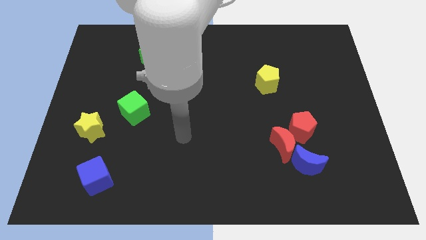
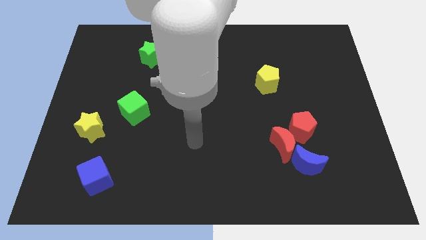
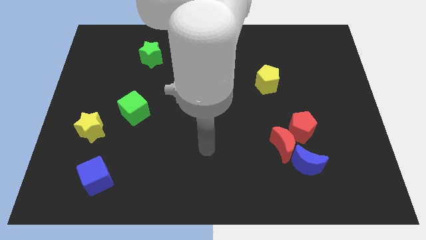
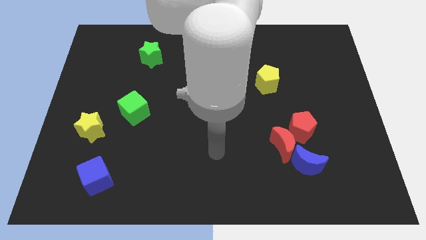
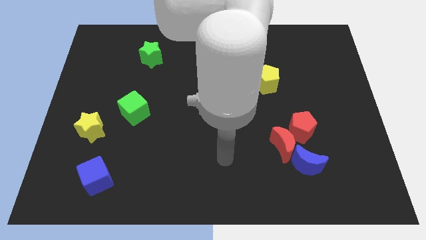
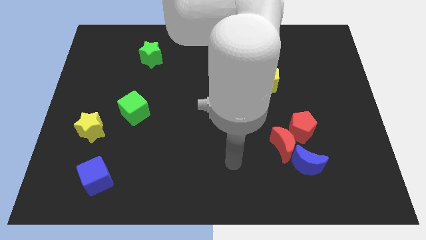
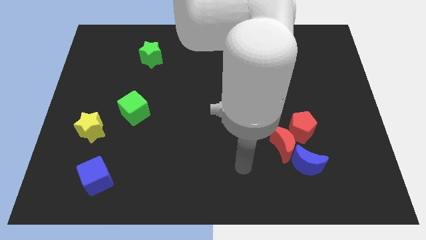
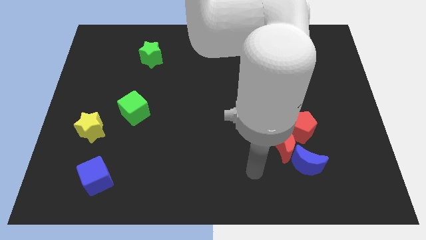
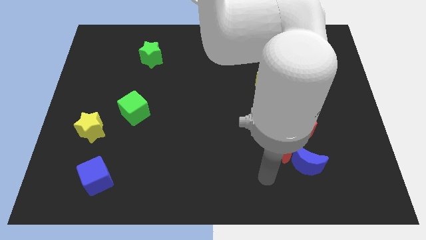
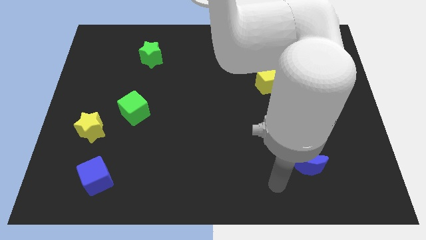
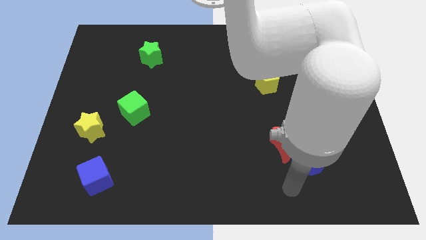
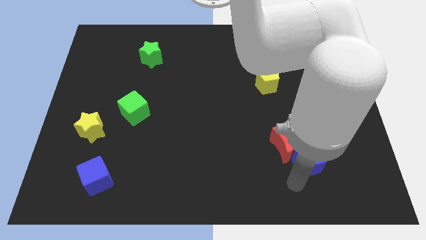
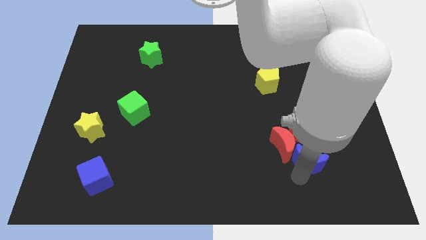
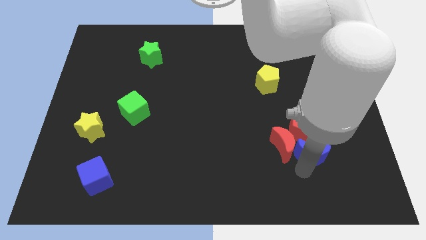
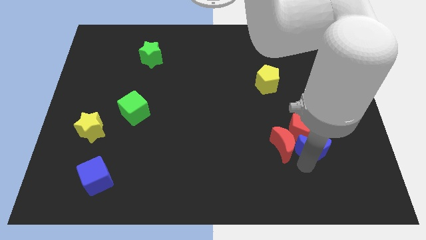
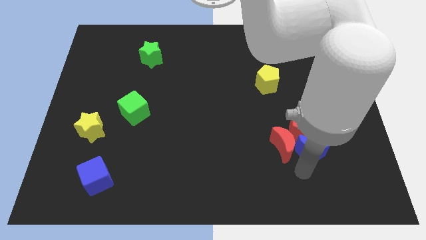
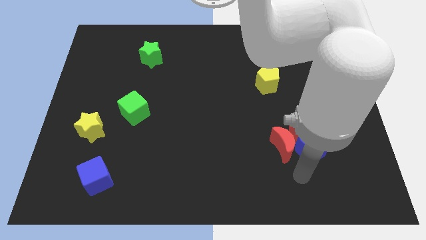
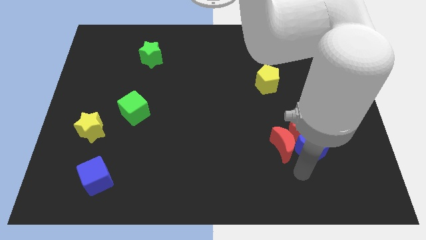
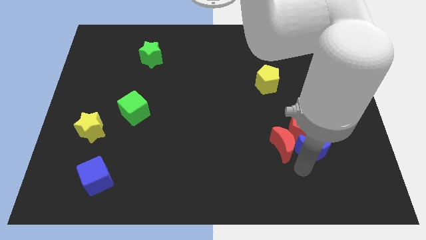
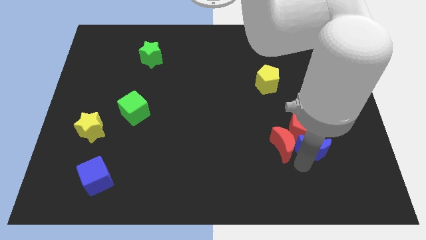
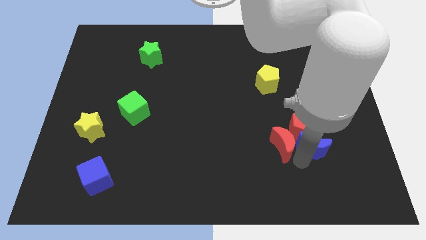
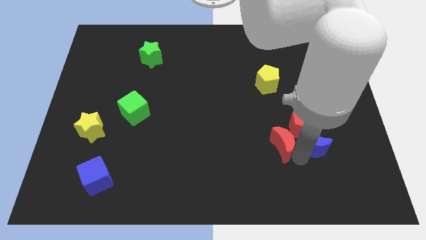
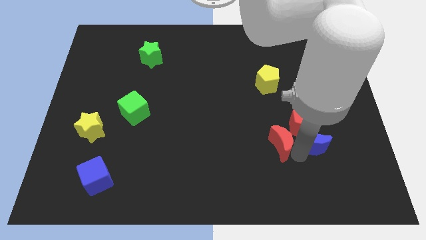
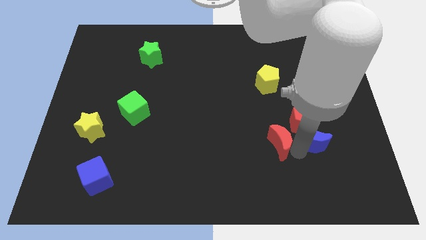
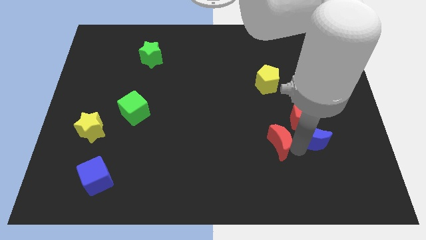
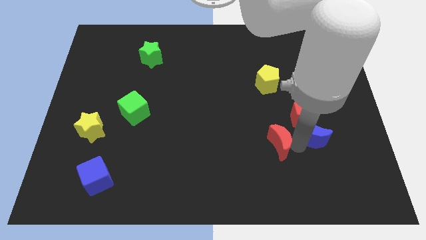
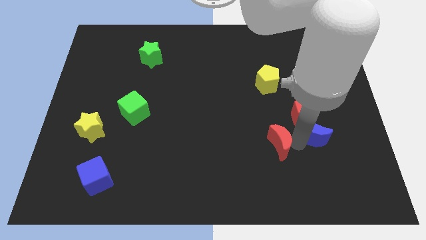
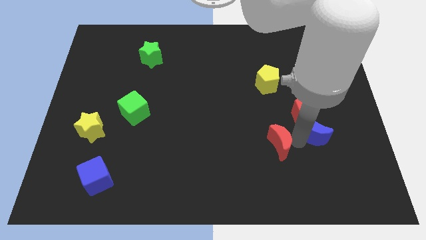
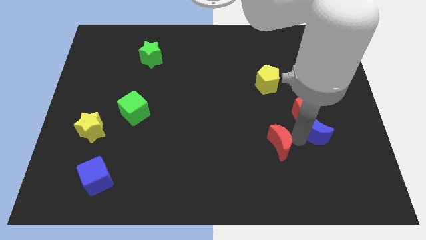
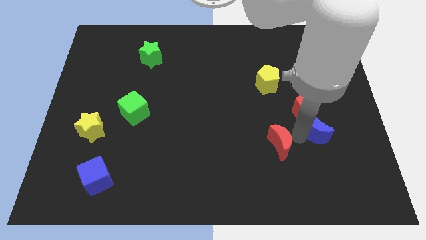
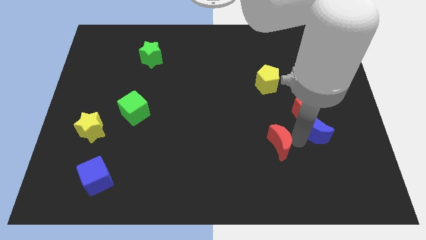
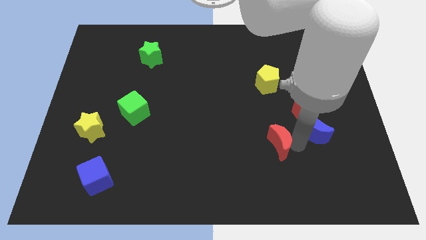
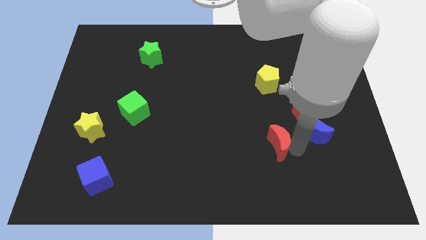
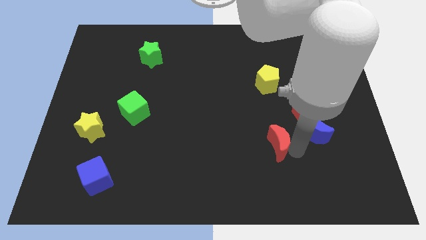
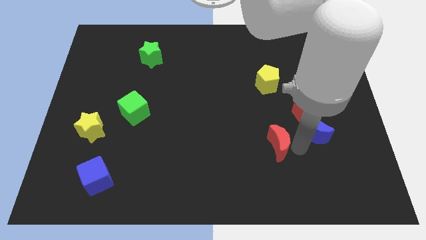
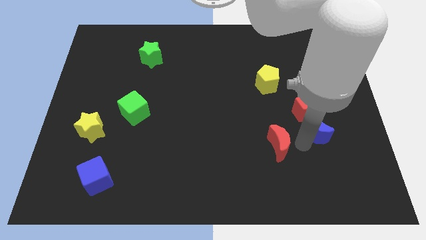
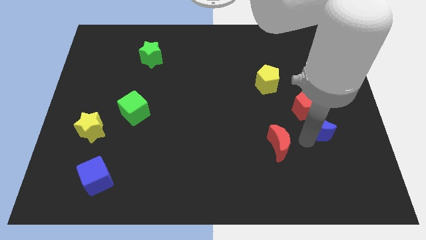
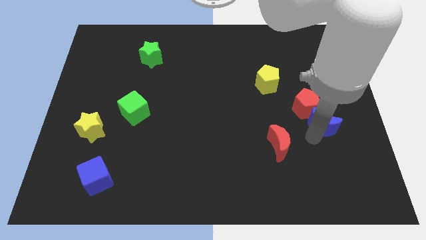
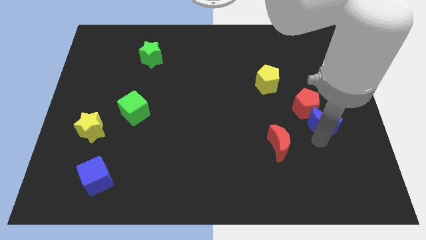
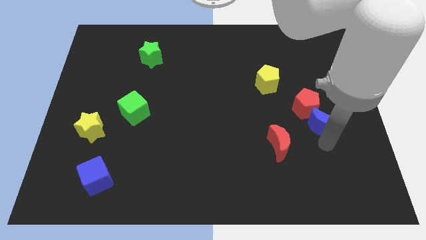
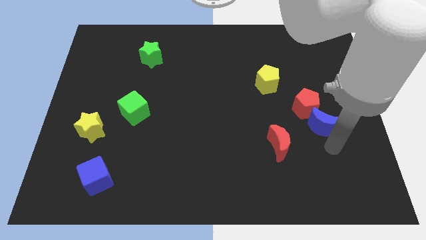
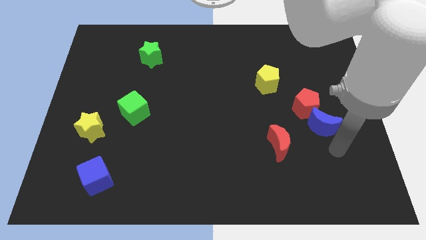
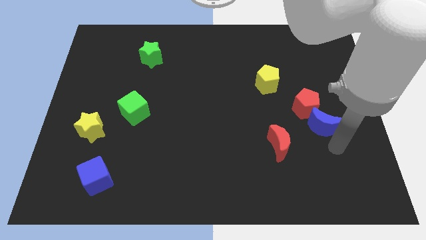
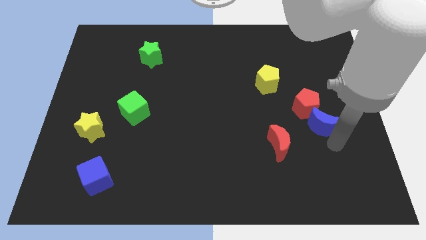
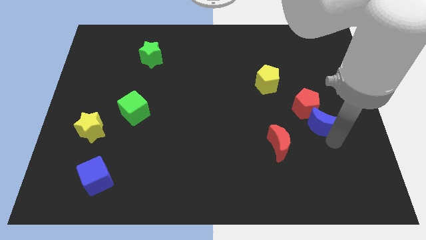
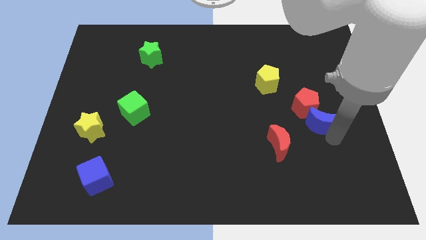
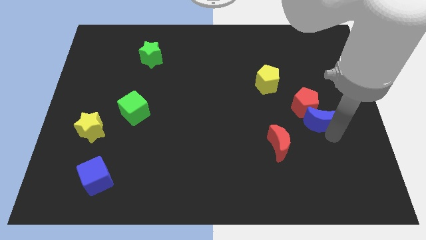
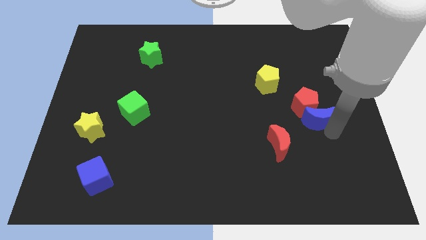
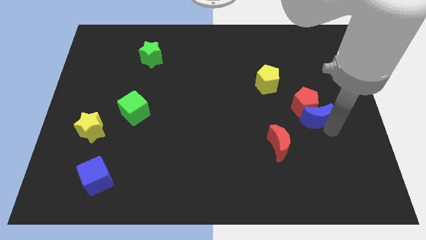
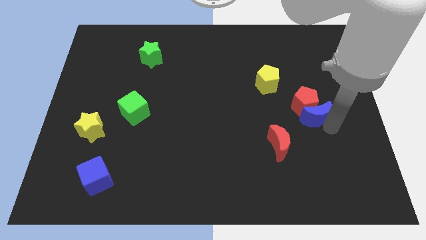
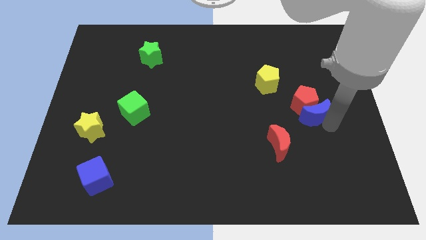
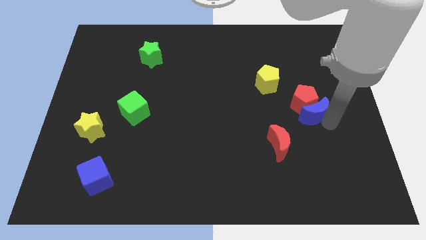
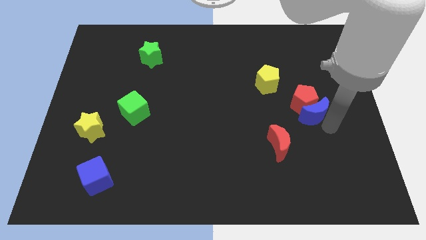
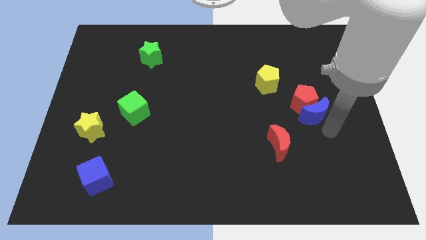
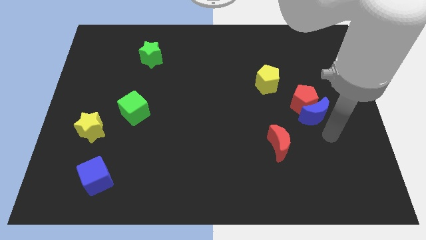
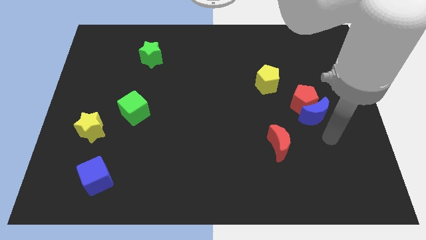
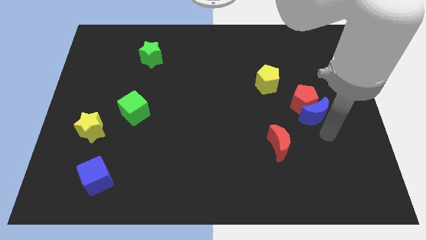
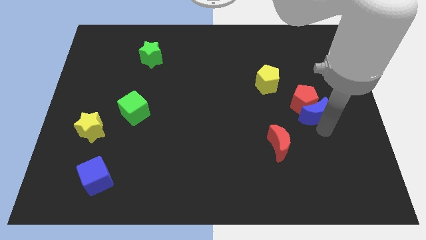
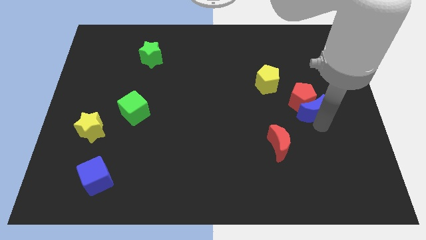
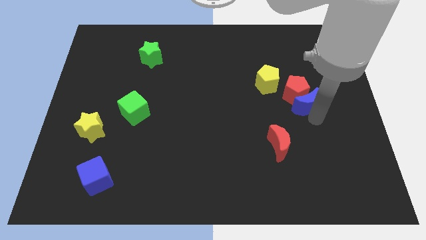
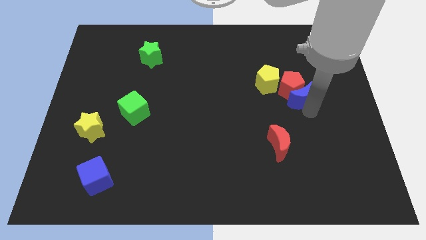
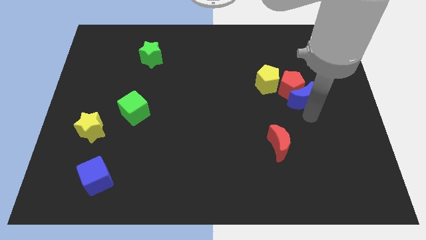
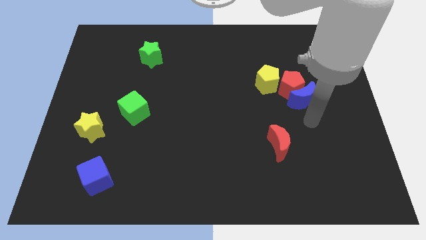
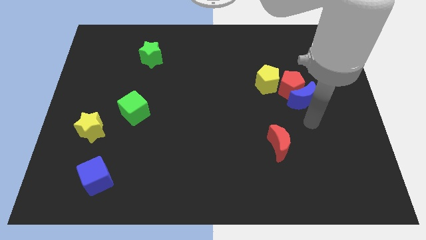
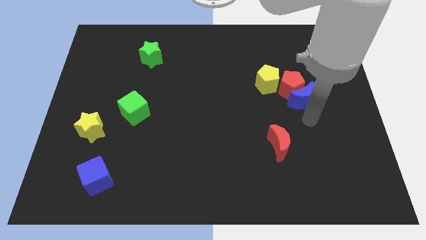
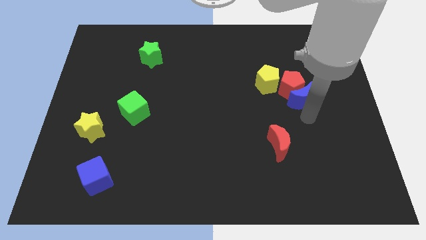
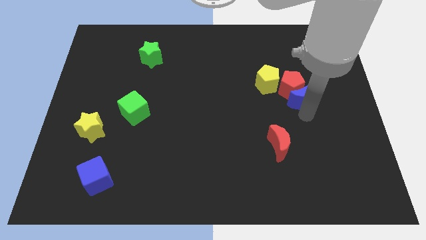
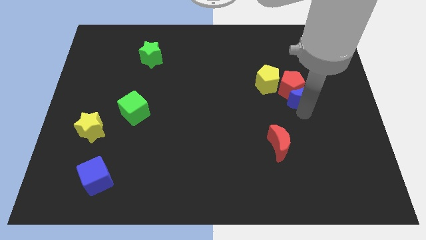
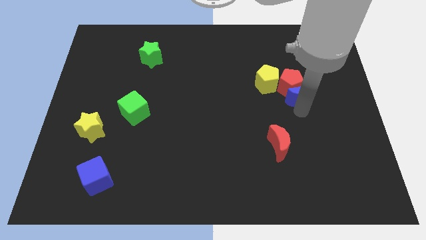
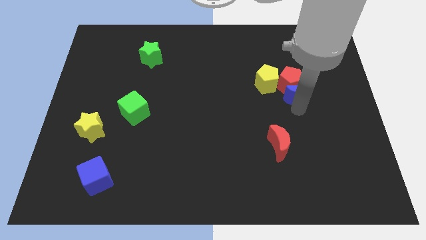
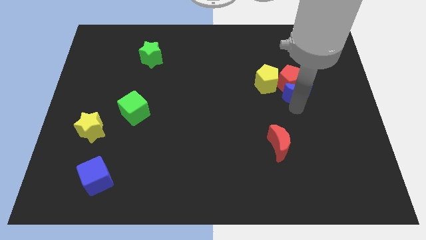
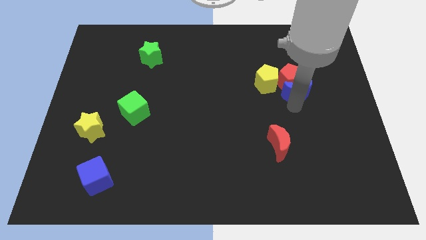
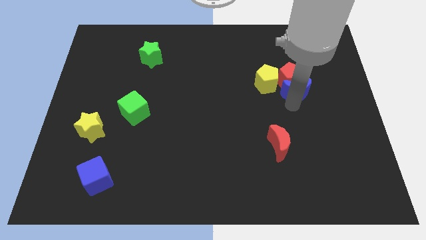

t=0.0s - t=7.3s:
push the blue moon upwards

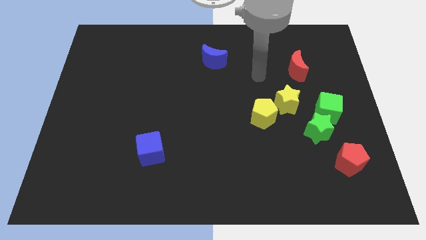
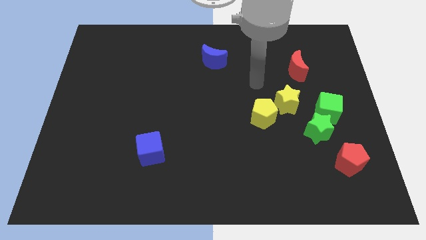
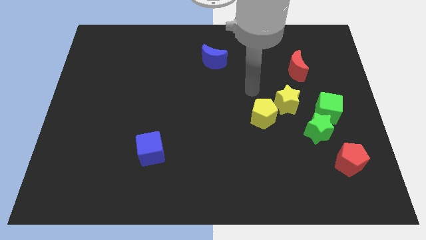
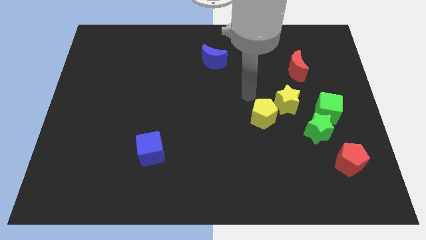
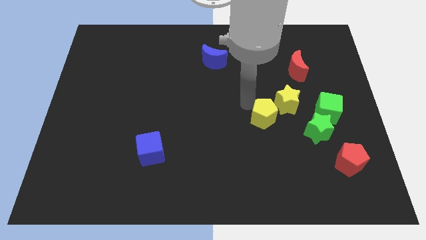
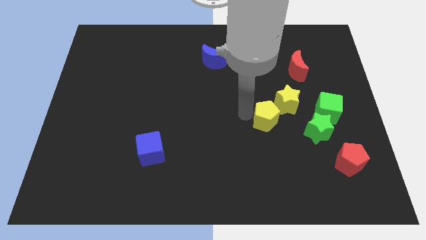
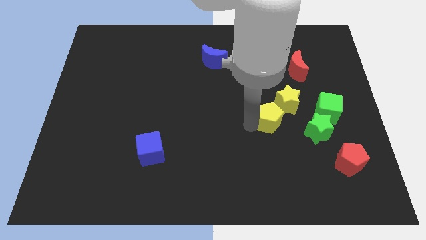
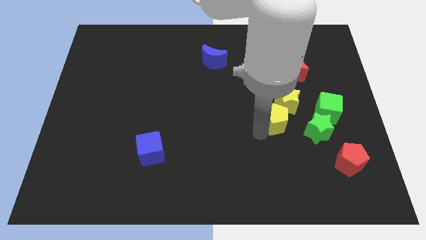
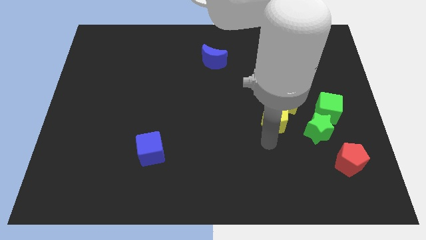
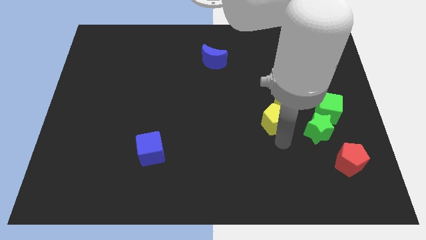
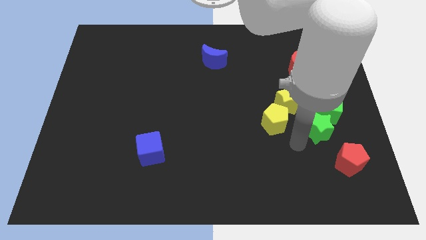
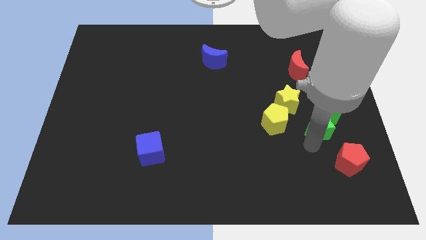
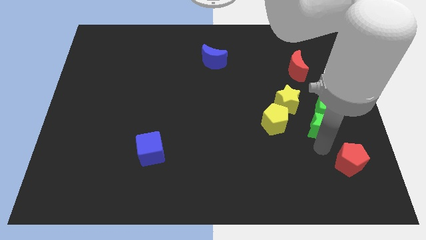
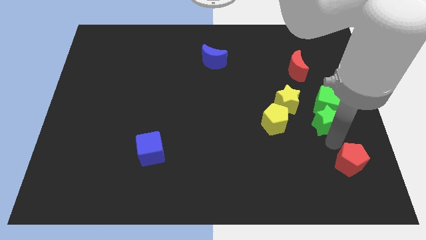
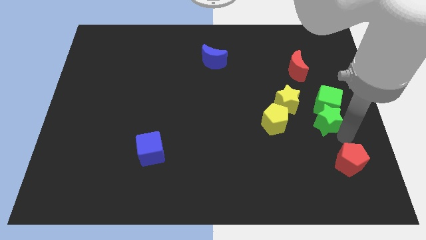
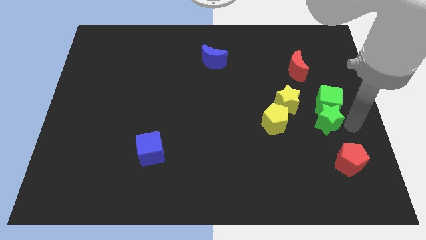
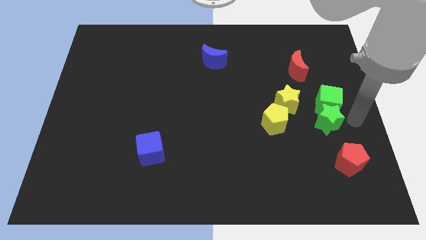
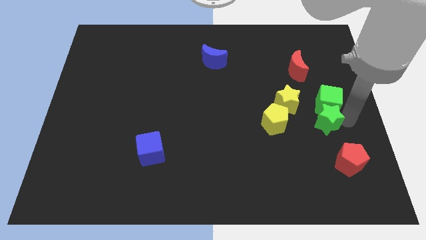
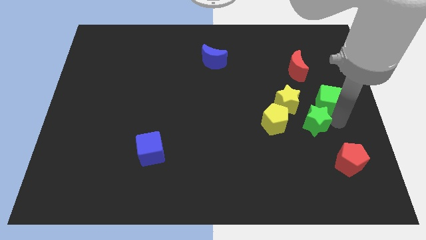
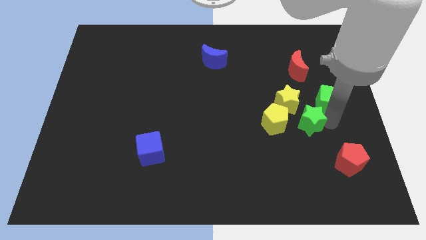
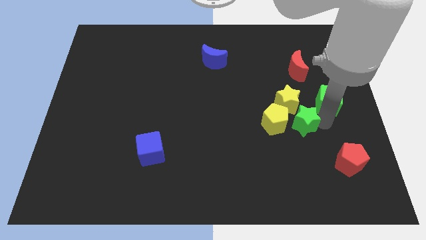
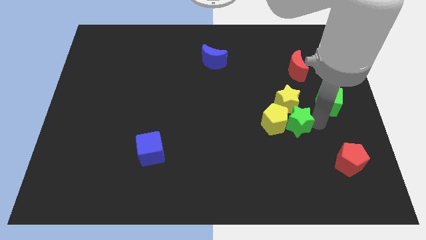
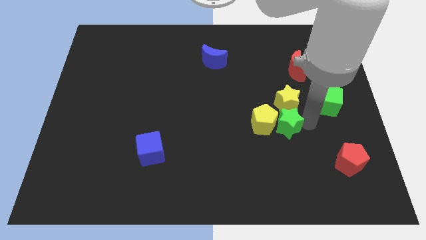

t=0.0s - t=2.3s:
slide the green star to the left a little bit
